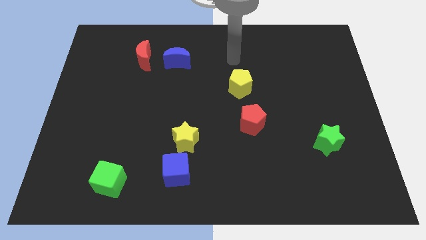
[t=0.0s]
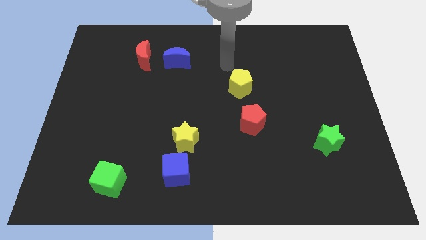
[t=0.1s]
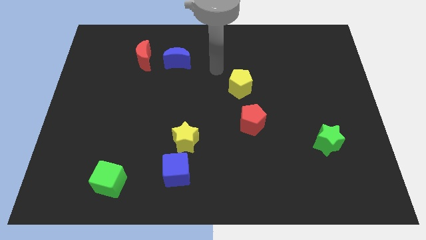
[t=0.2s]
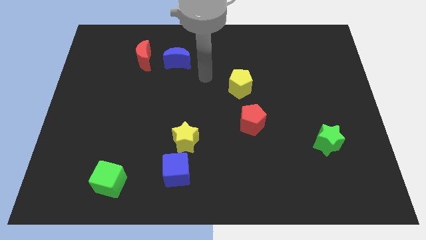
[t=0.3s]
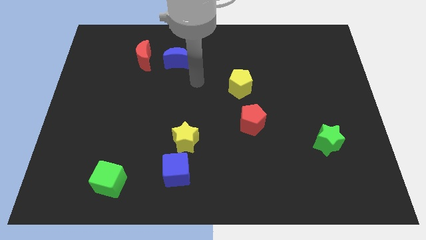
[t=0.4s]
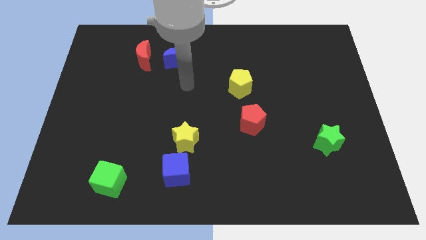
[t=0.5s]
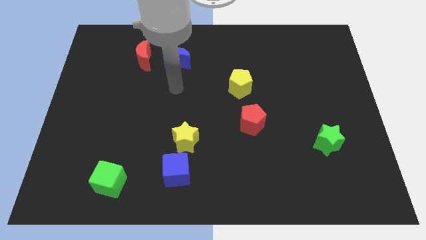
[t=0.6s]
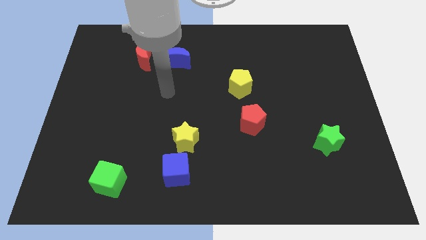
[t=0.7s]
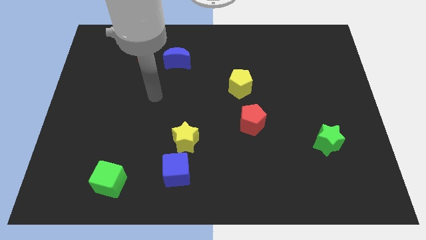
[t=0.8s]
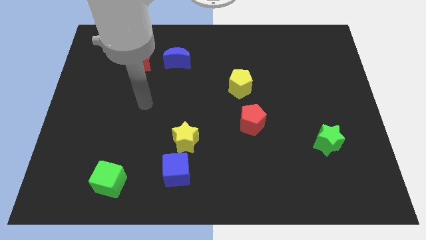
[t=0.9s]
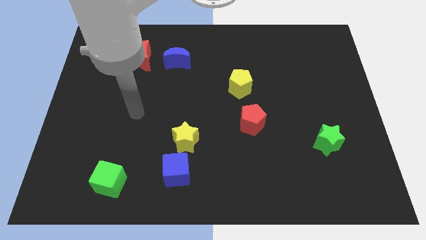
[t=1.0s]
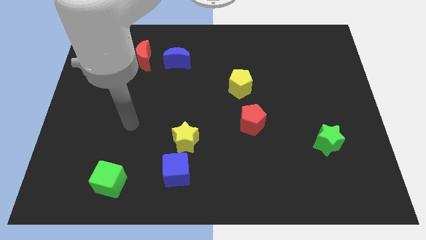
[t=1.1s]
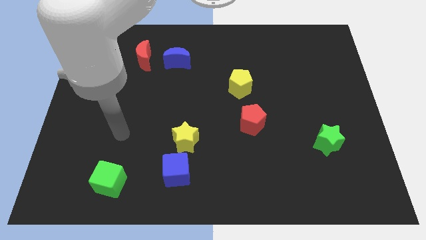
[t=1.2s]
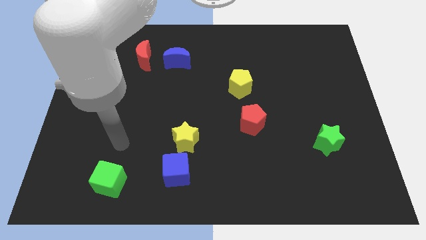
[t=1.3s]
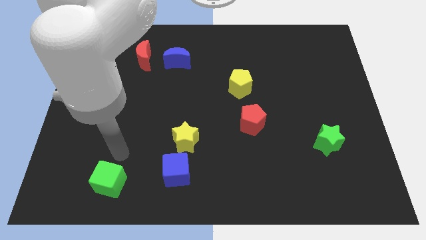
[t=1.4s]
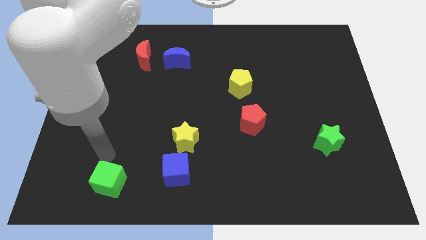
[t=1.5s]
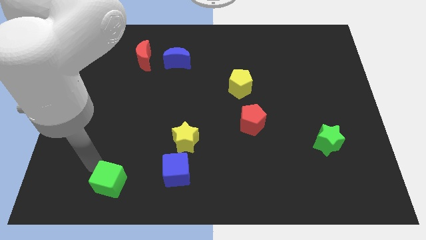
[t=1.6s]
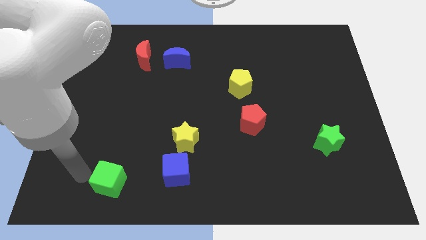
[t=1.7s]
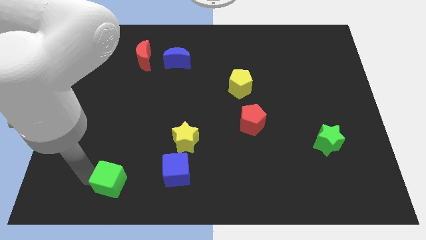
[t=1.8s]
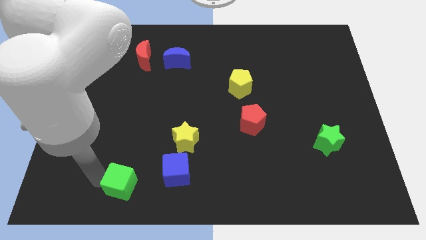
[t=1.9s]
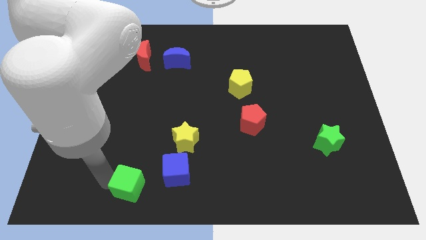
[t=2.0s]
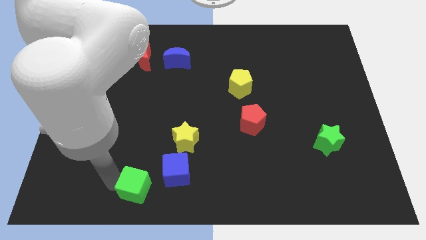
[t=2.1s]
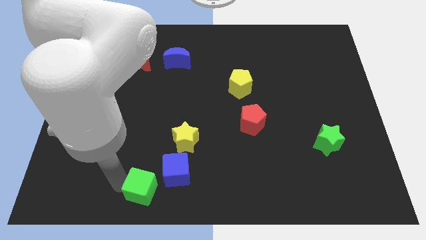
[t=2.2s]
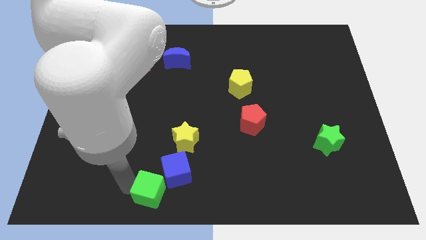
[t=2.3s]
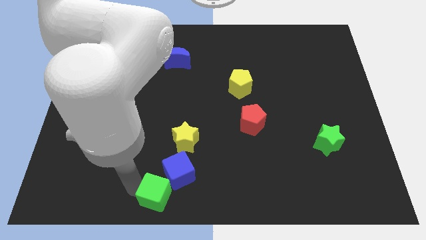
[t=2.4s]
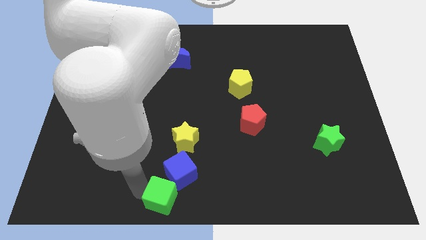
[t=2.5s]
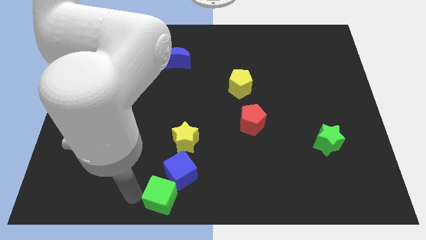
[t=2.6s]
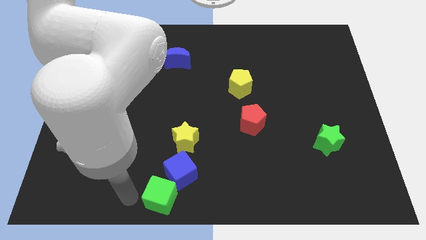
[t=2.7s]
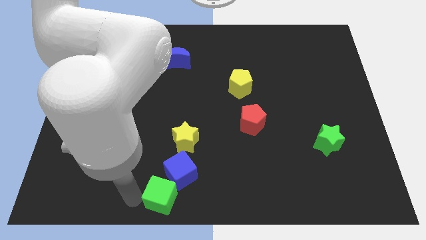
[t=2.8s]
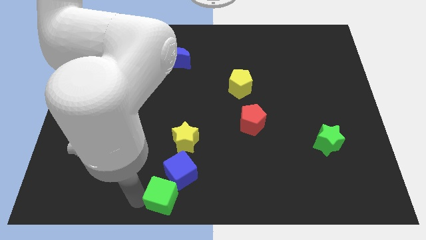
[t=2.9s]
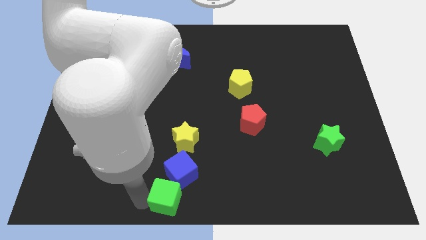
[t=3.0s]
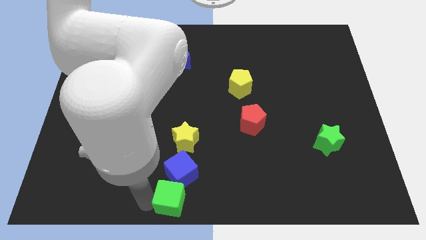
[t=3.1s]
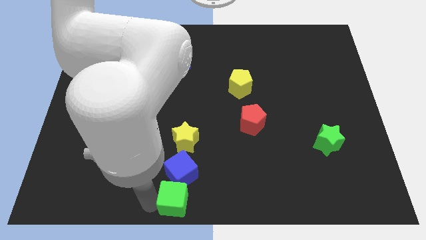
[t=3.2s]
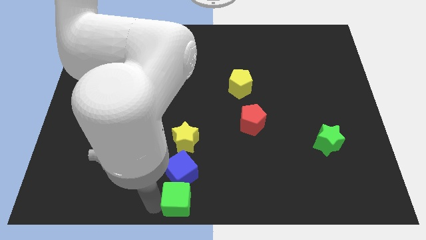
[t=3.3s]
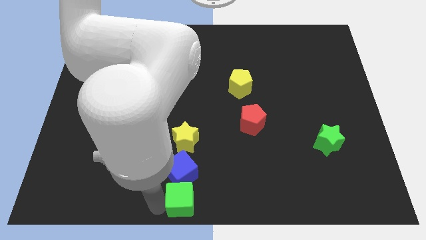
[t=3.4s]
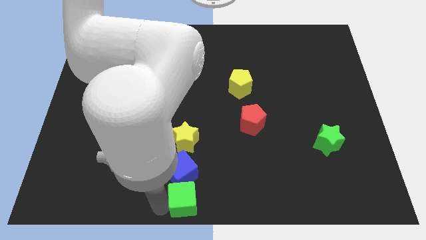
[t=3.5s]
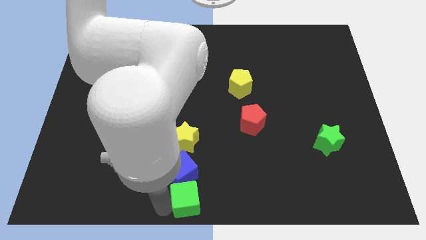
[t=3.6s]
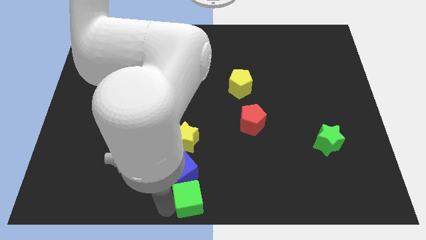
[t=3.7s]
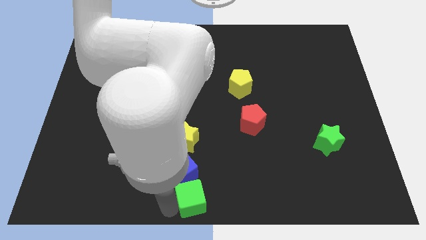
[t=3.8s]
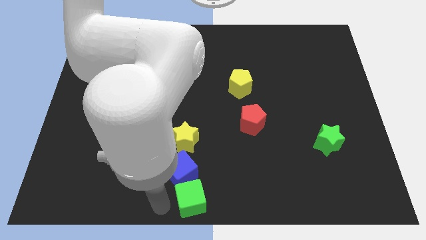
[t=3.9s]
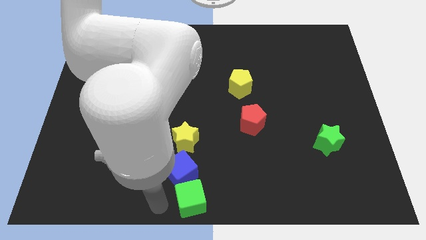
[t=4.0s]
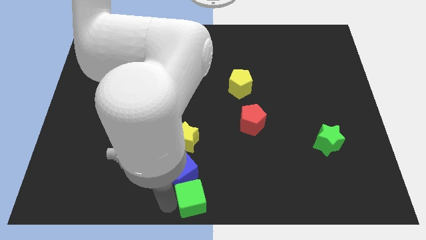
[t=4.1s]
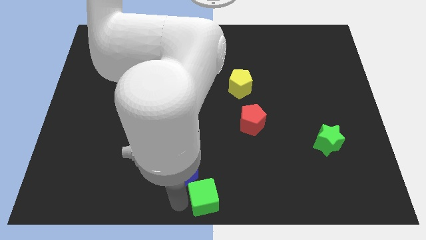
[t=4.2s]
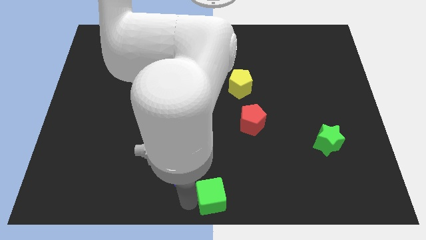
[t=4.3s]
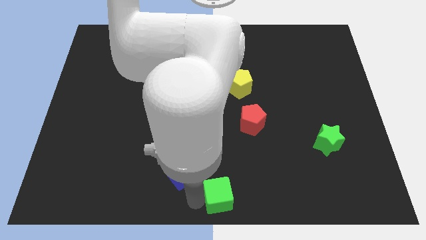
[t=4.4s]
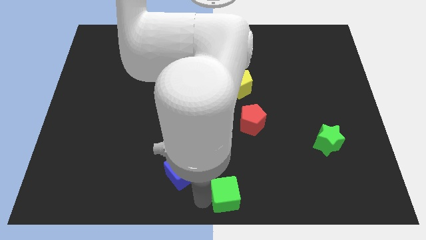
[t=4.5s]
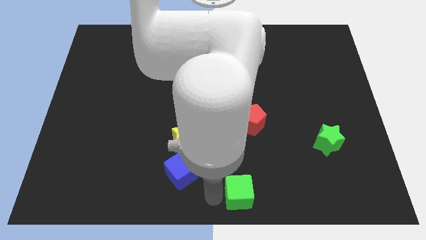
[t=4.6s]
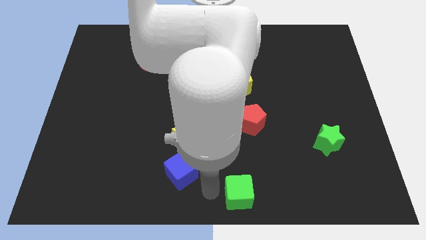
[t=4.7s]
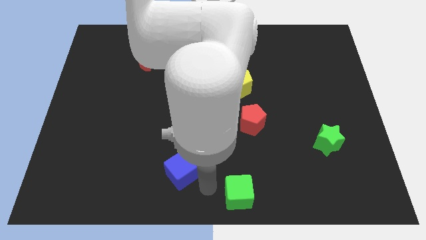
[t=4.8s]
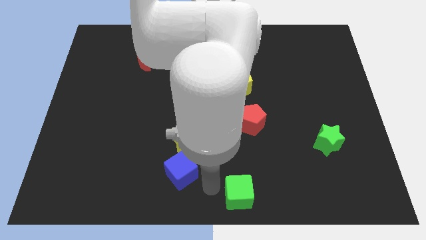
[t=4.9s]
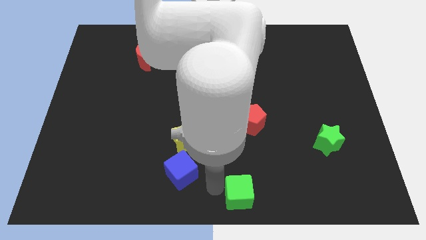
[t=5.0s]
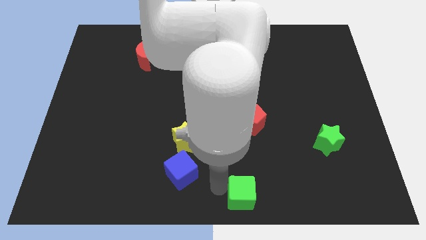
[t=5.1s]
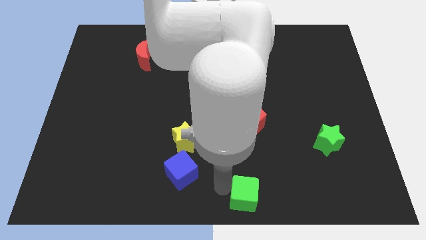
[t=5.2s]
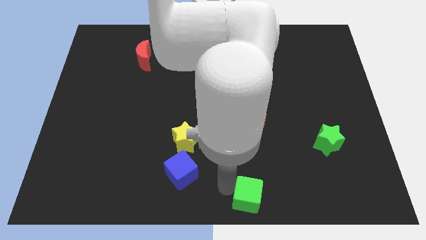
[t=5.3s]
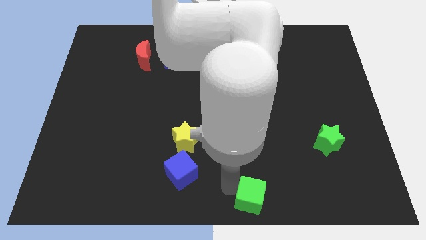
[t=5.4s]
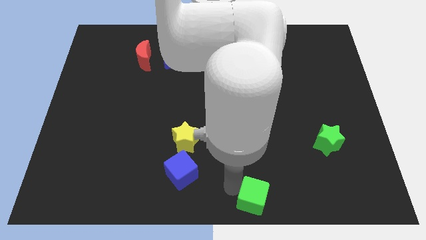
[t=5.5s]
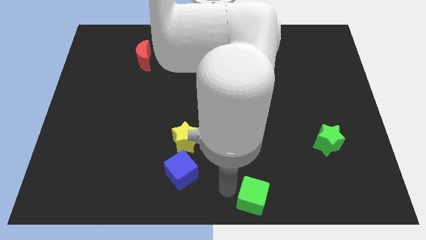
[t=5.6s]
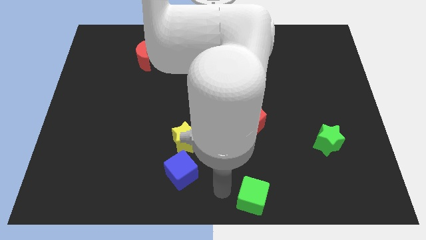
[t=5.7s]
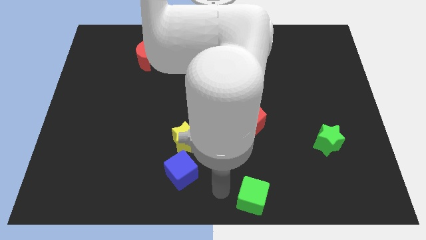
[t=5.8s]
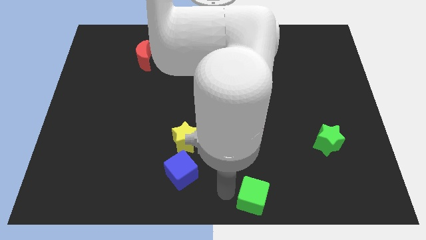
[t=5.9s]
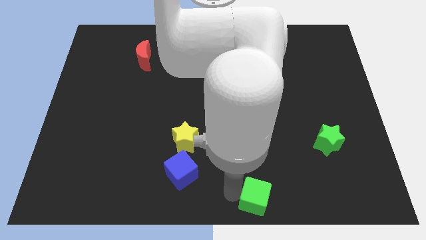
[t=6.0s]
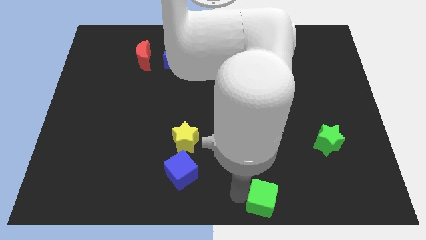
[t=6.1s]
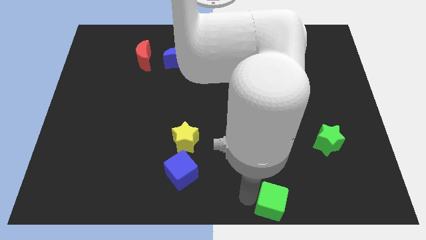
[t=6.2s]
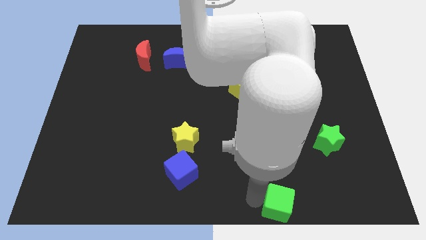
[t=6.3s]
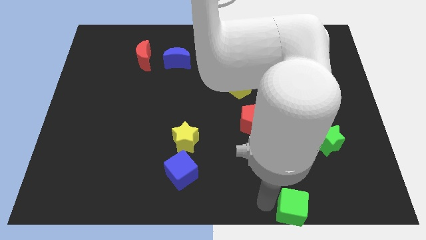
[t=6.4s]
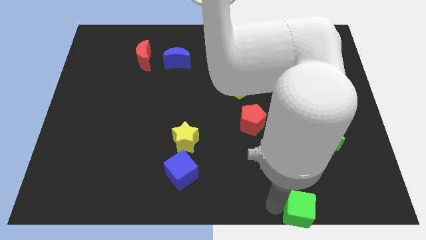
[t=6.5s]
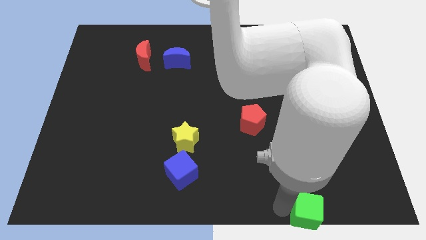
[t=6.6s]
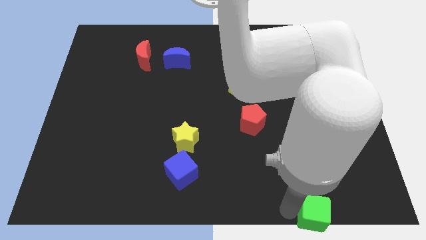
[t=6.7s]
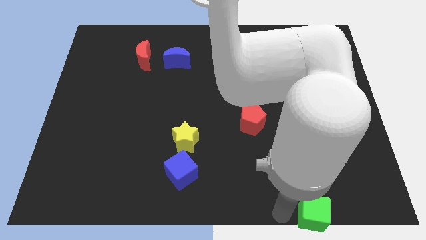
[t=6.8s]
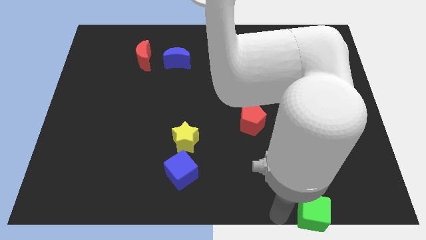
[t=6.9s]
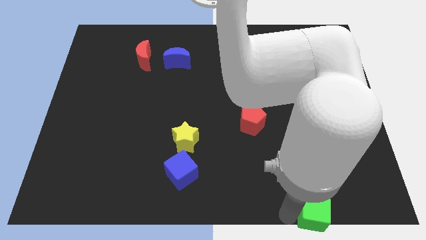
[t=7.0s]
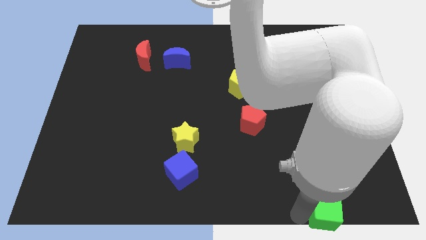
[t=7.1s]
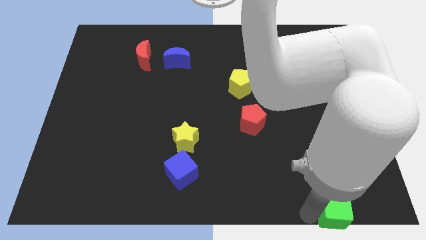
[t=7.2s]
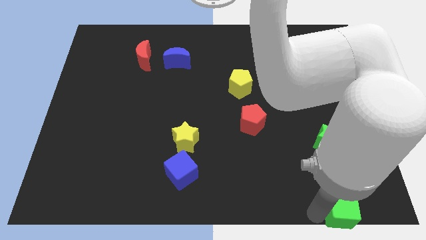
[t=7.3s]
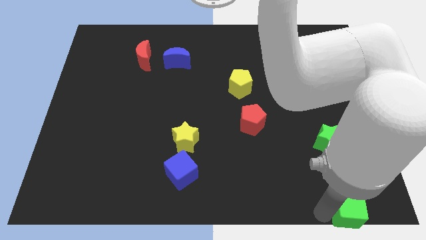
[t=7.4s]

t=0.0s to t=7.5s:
put the green cube to the bottom right of the board
